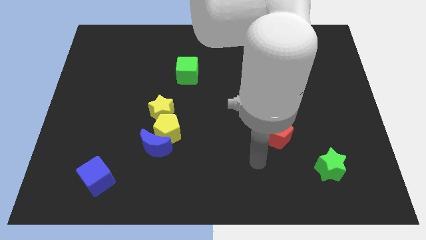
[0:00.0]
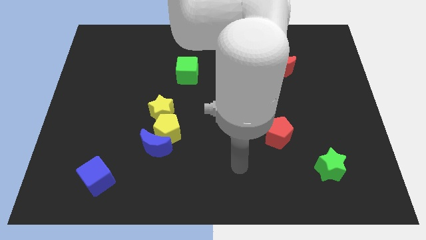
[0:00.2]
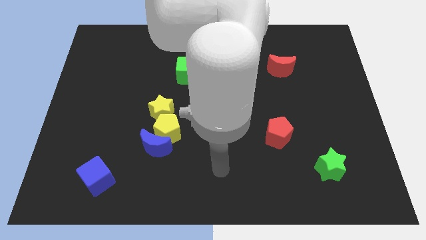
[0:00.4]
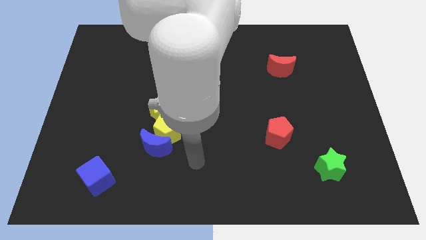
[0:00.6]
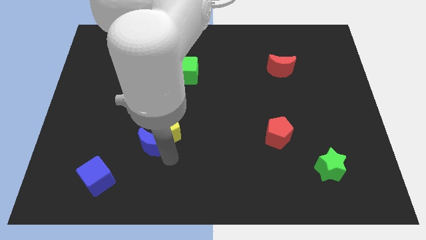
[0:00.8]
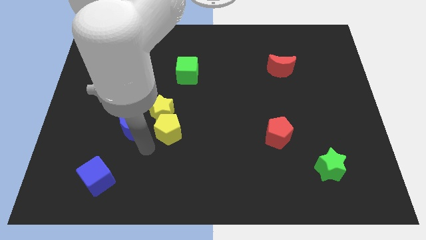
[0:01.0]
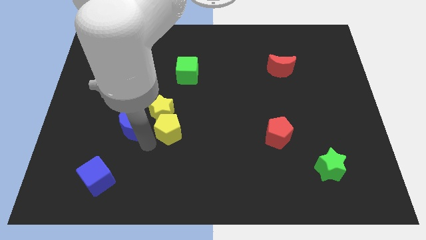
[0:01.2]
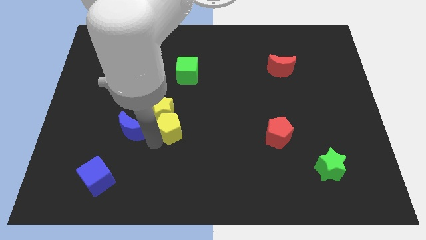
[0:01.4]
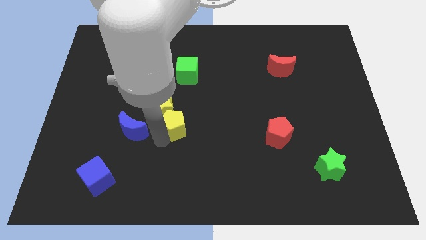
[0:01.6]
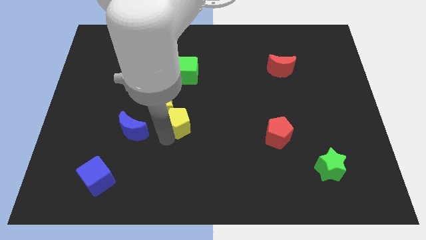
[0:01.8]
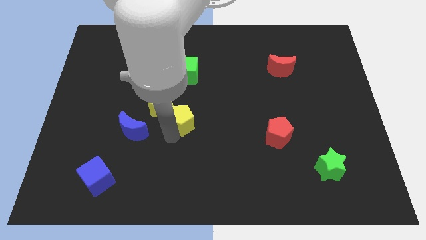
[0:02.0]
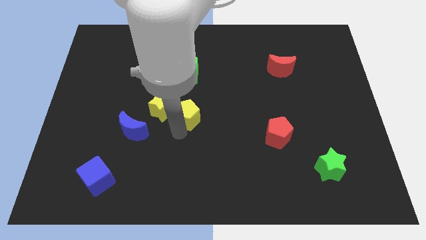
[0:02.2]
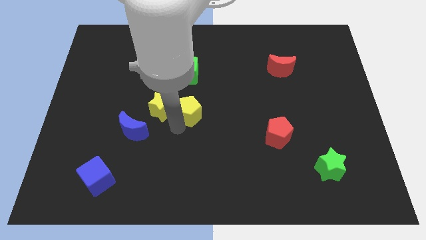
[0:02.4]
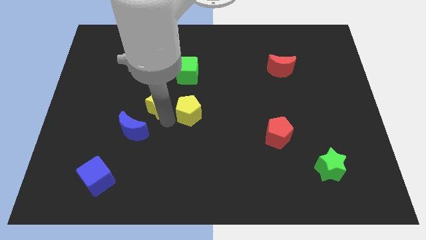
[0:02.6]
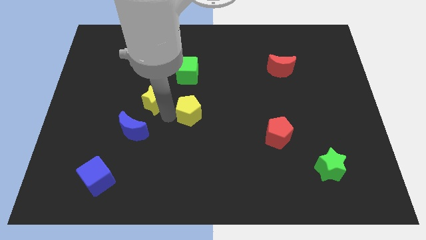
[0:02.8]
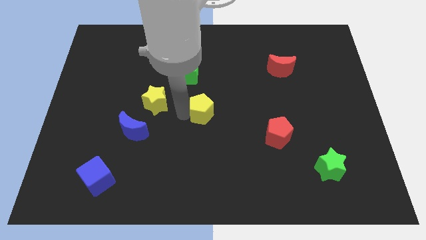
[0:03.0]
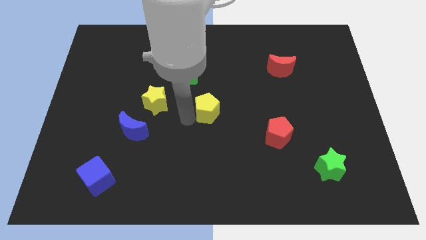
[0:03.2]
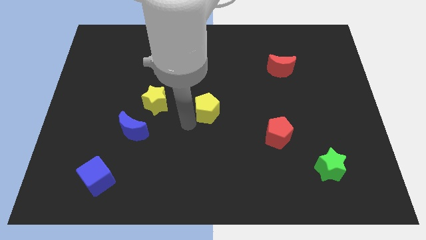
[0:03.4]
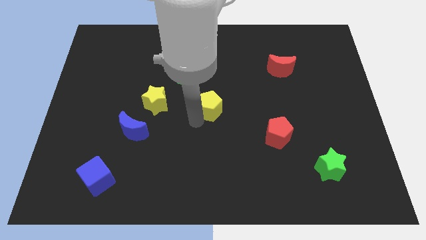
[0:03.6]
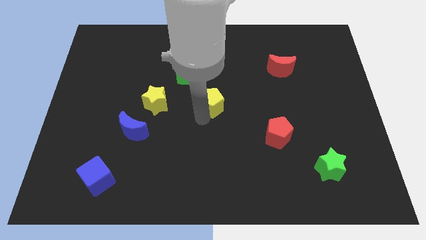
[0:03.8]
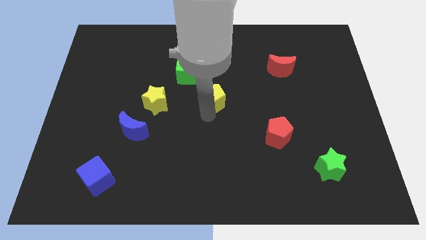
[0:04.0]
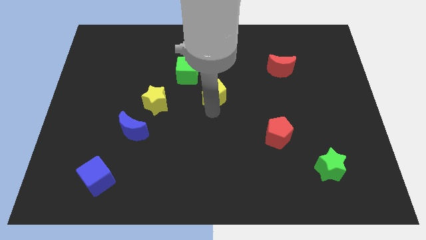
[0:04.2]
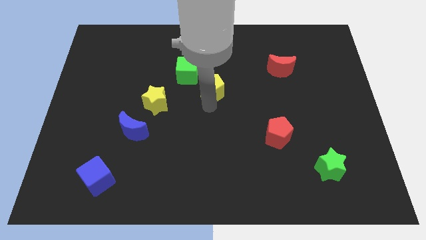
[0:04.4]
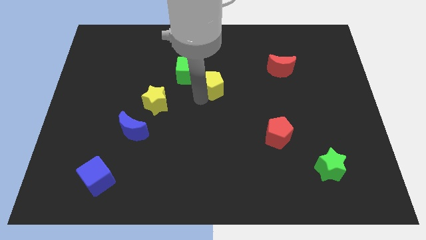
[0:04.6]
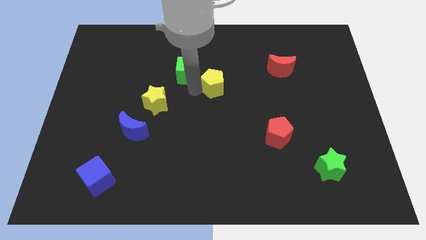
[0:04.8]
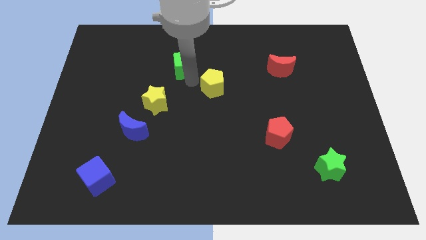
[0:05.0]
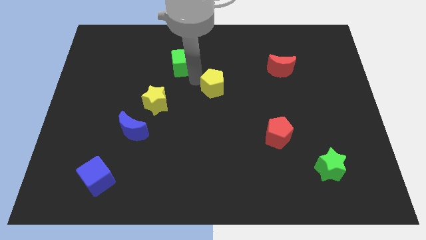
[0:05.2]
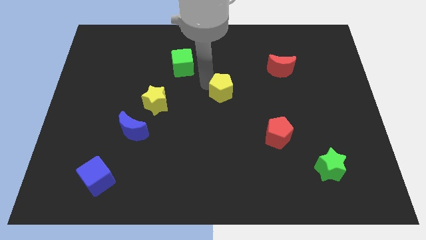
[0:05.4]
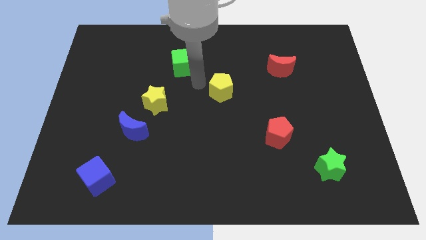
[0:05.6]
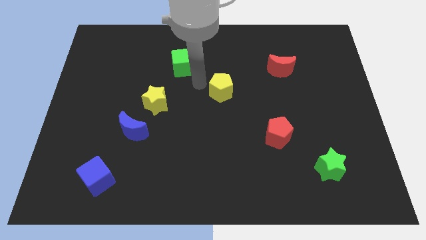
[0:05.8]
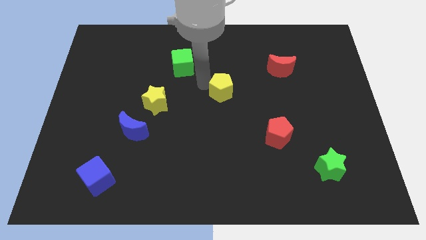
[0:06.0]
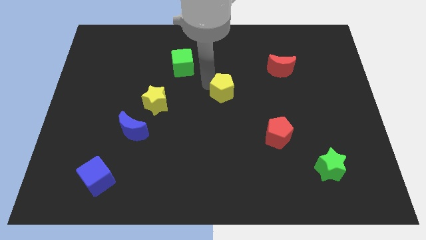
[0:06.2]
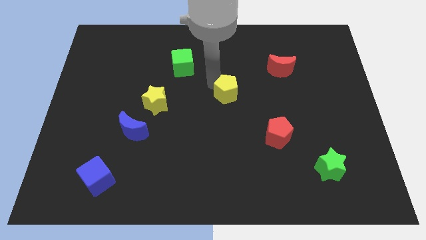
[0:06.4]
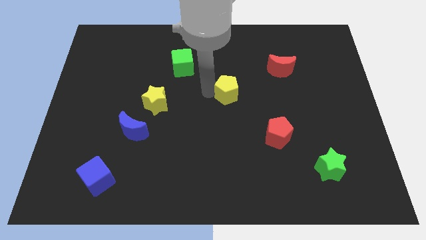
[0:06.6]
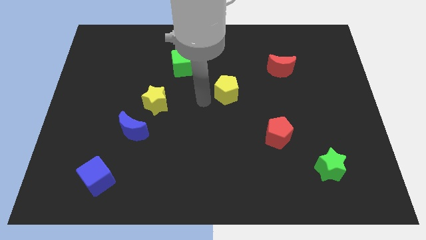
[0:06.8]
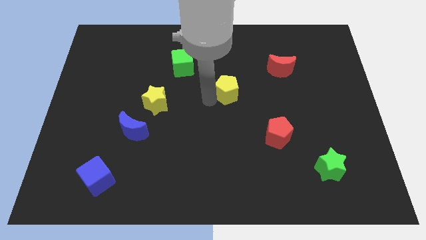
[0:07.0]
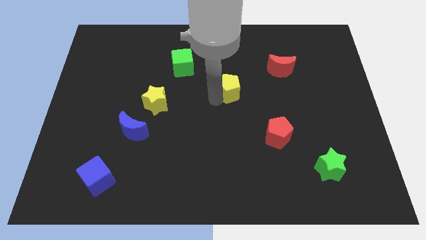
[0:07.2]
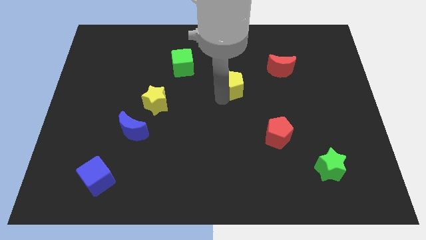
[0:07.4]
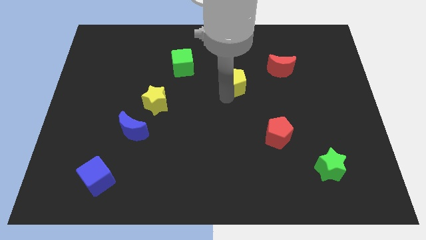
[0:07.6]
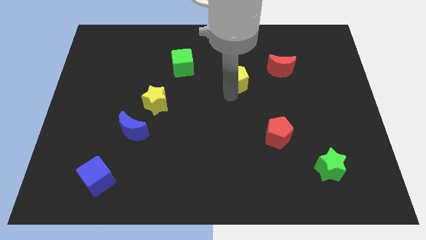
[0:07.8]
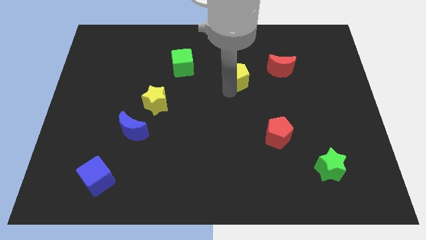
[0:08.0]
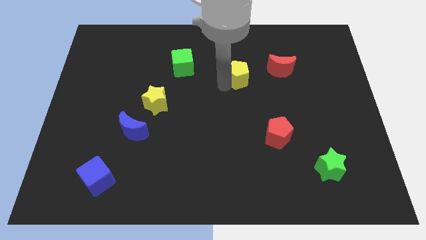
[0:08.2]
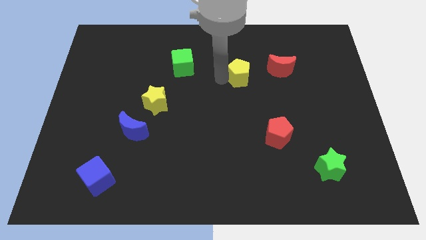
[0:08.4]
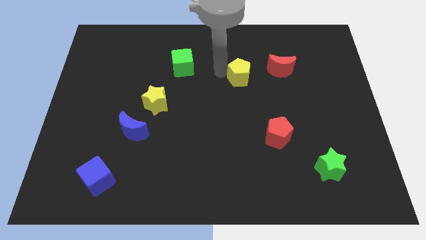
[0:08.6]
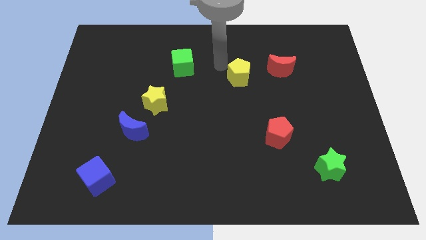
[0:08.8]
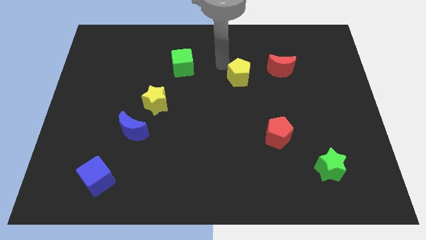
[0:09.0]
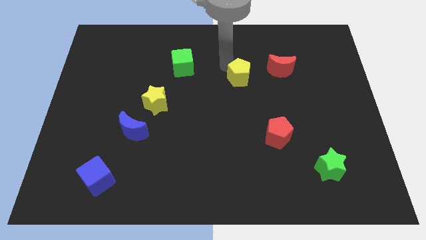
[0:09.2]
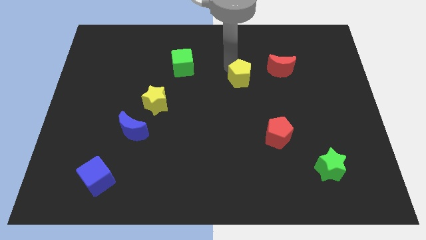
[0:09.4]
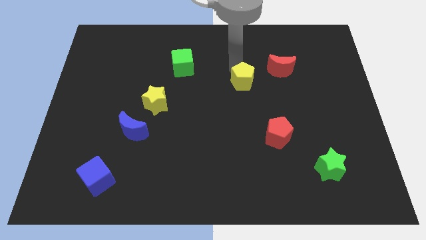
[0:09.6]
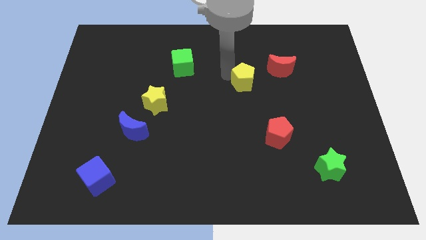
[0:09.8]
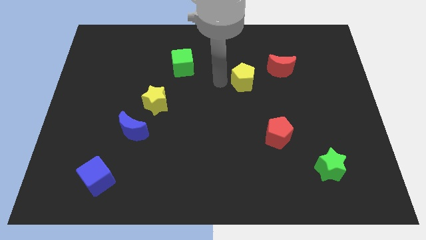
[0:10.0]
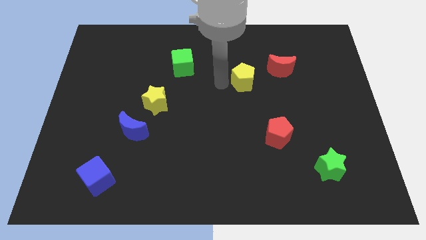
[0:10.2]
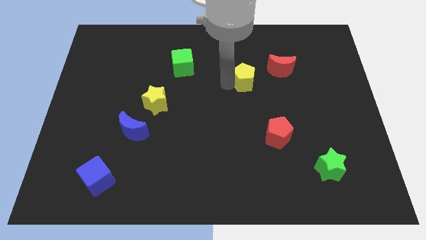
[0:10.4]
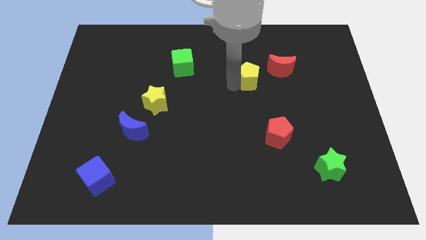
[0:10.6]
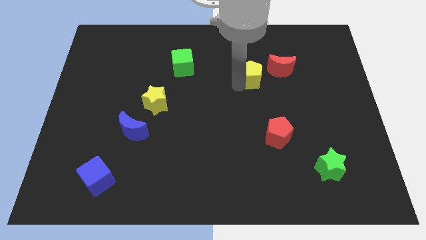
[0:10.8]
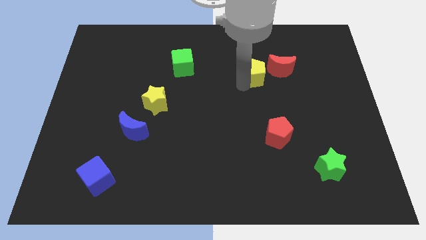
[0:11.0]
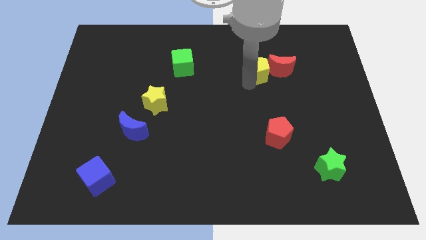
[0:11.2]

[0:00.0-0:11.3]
put the yellow pentagon to the red moon

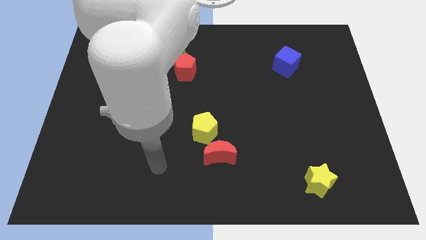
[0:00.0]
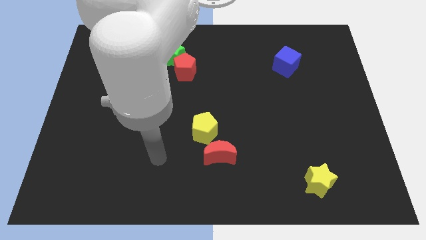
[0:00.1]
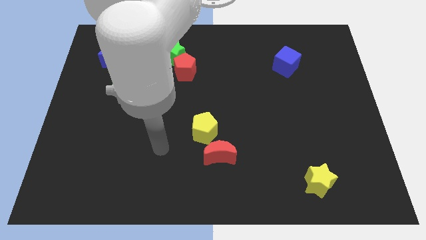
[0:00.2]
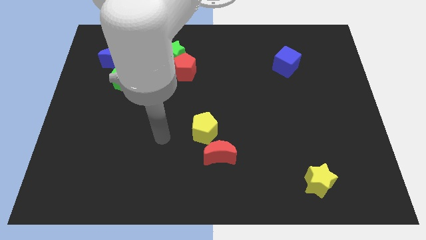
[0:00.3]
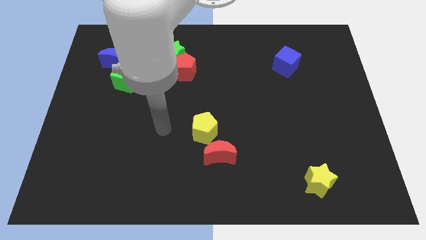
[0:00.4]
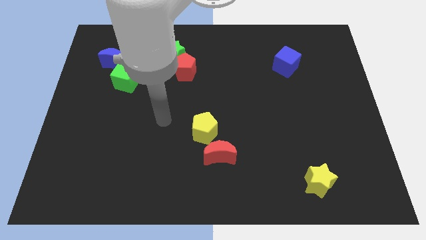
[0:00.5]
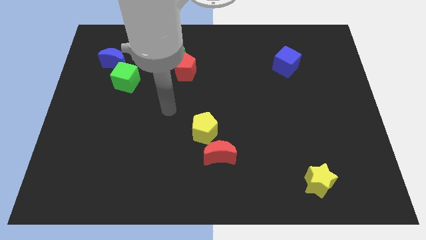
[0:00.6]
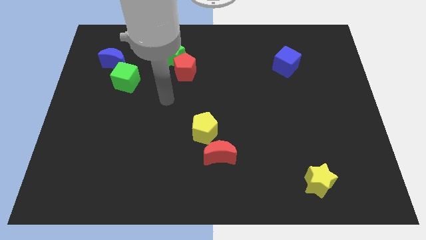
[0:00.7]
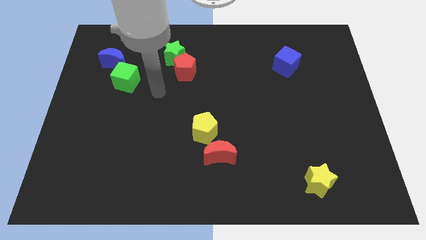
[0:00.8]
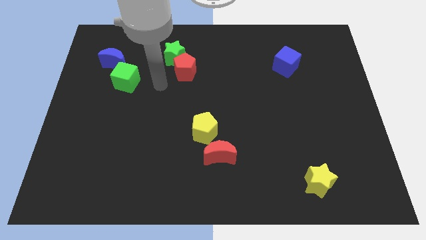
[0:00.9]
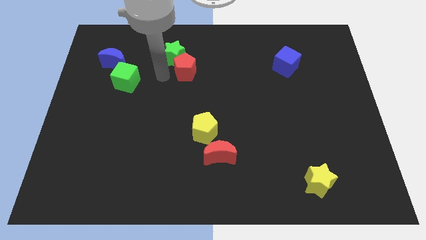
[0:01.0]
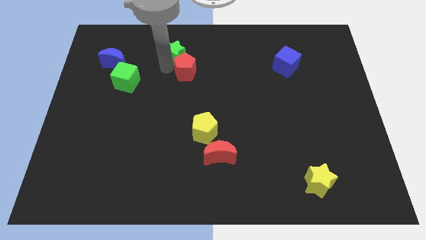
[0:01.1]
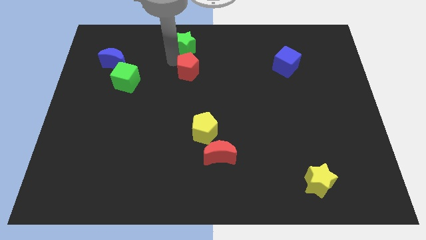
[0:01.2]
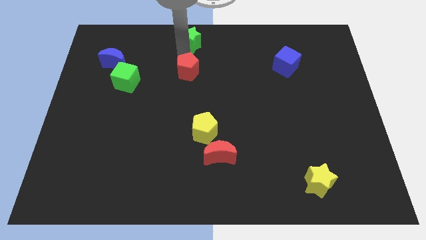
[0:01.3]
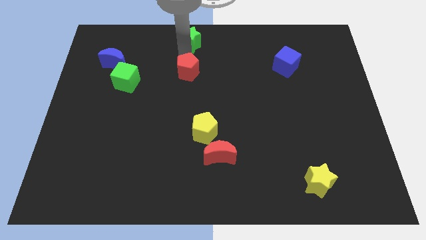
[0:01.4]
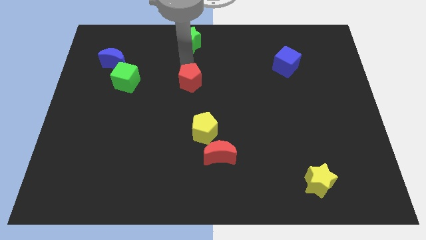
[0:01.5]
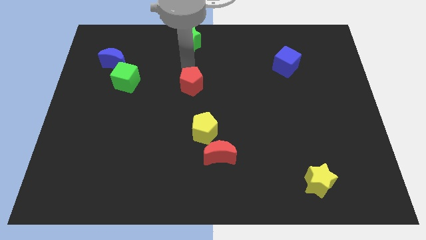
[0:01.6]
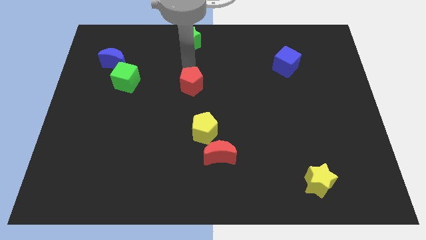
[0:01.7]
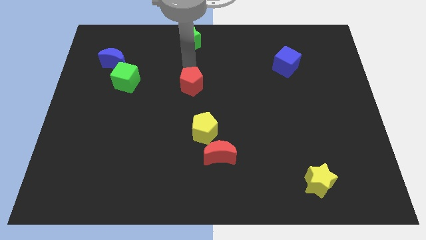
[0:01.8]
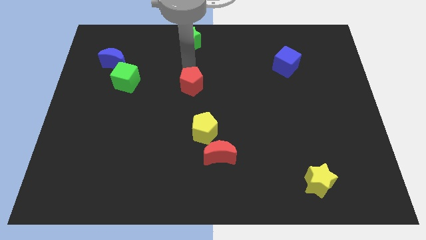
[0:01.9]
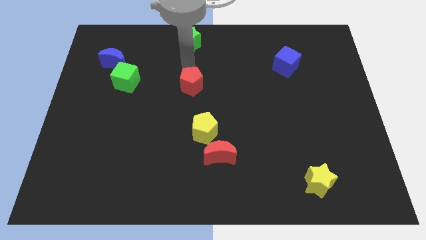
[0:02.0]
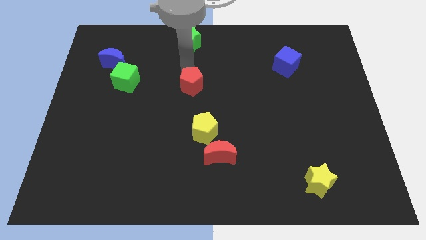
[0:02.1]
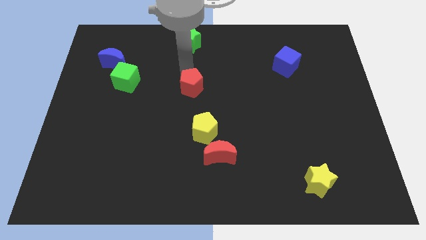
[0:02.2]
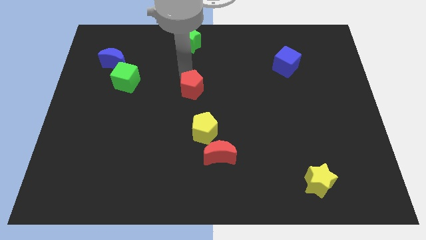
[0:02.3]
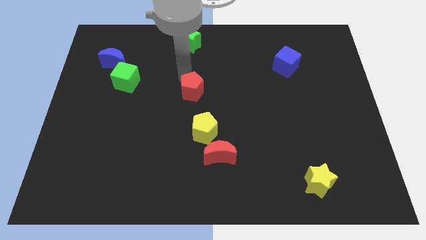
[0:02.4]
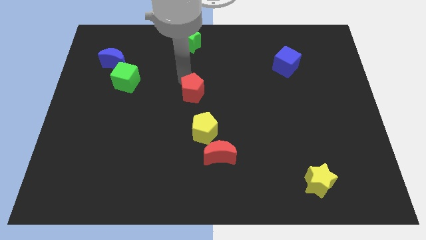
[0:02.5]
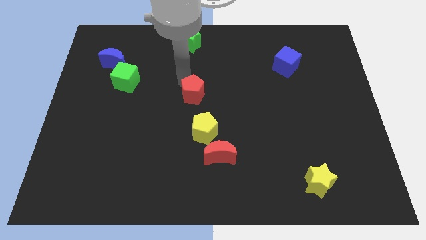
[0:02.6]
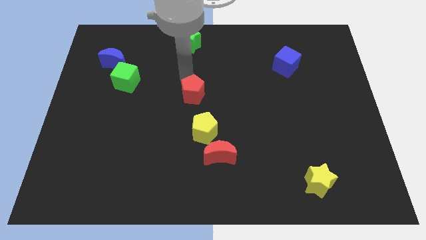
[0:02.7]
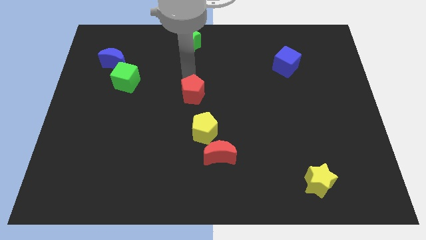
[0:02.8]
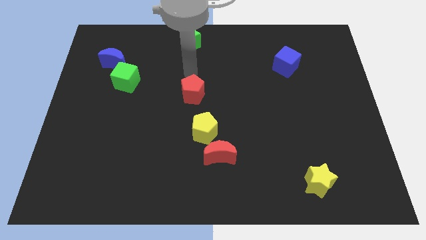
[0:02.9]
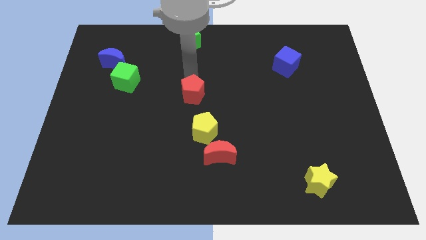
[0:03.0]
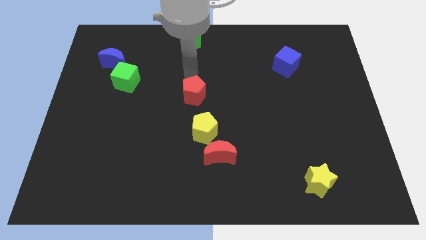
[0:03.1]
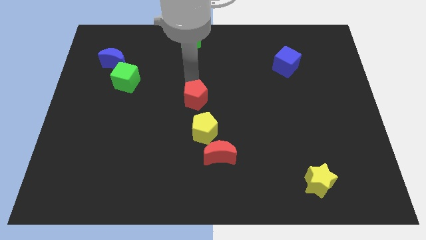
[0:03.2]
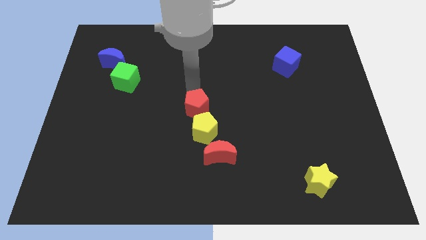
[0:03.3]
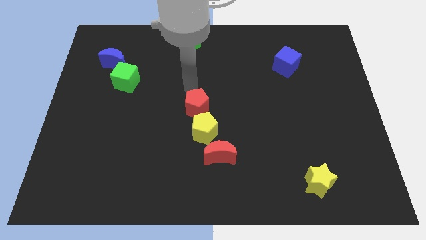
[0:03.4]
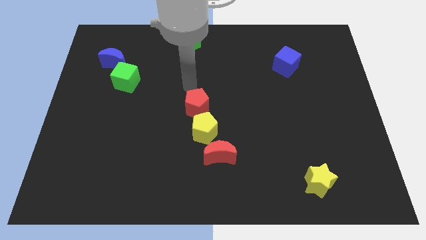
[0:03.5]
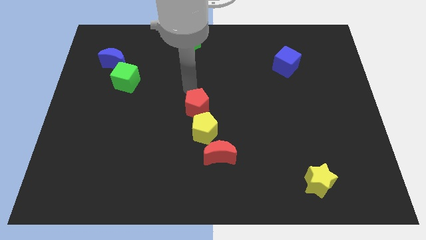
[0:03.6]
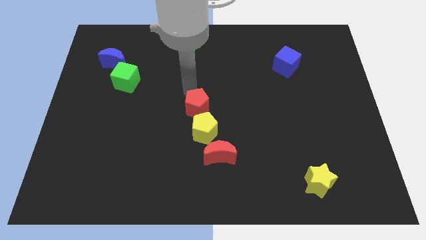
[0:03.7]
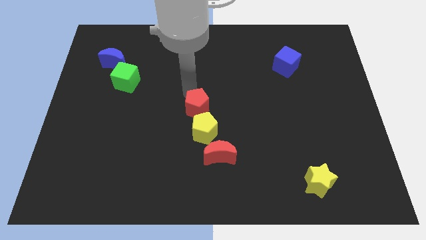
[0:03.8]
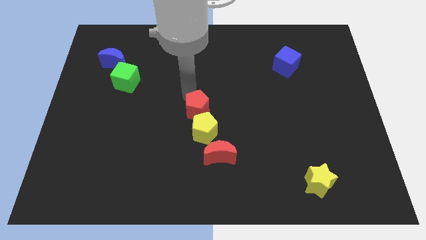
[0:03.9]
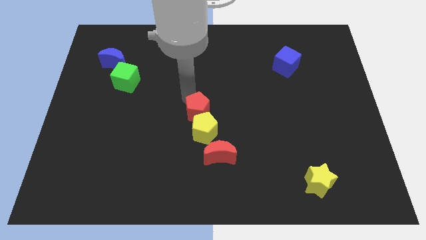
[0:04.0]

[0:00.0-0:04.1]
move the red pentagon close to the yellow pentagon
